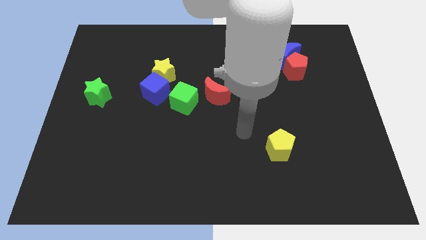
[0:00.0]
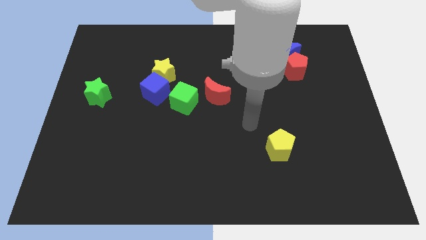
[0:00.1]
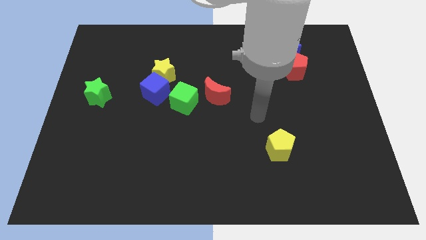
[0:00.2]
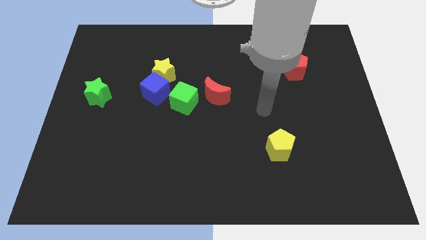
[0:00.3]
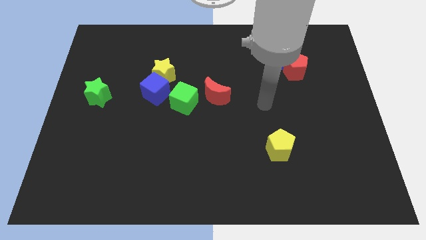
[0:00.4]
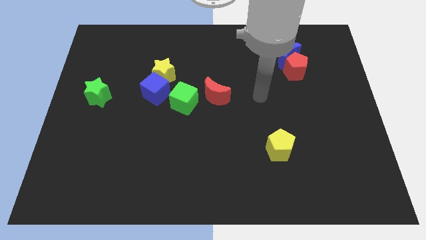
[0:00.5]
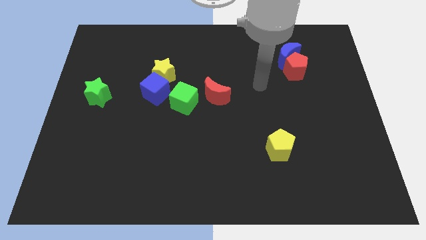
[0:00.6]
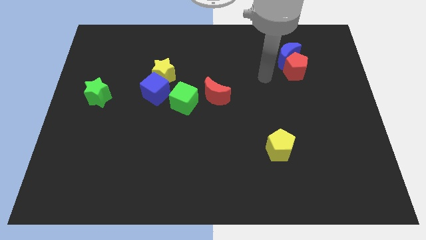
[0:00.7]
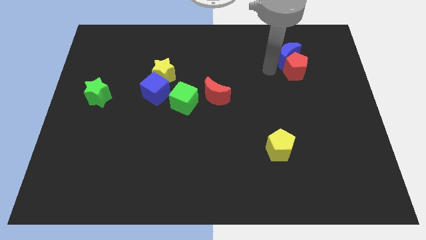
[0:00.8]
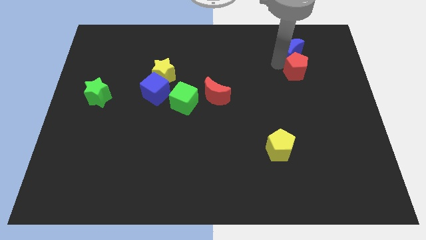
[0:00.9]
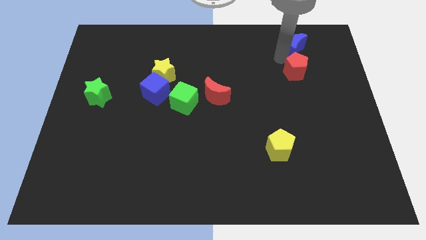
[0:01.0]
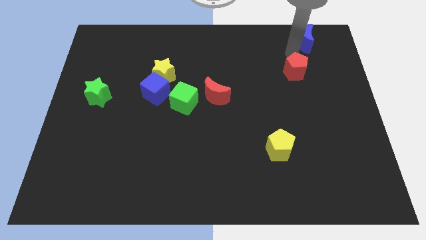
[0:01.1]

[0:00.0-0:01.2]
pull the red pentagon apart from the blue moon

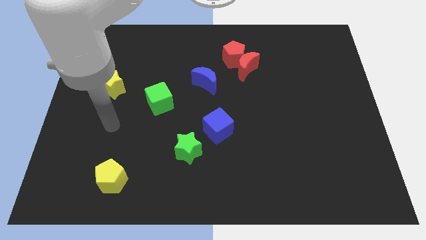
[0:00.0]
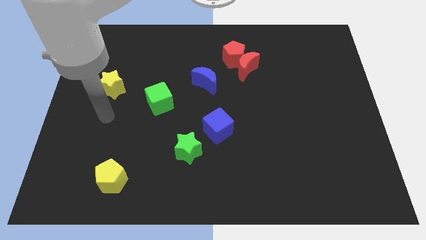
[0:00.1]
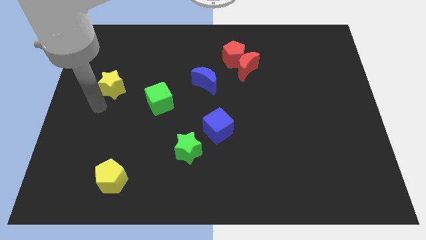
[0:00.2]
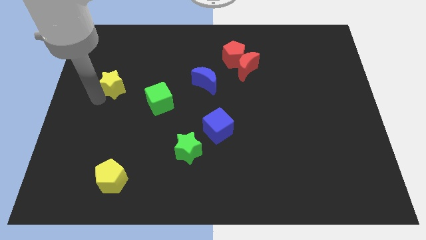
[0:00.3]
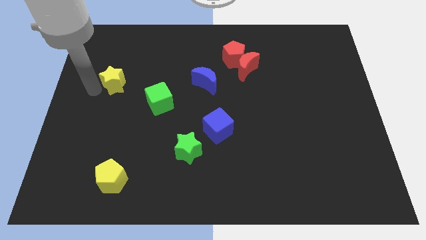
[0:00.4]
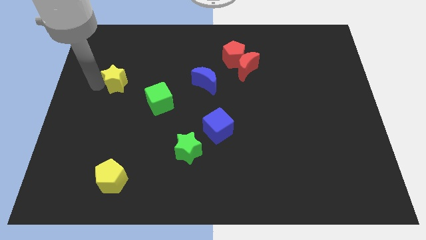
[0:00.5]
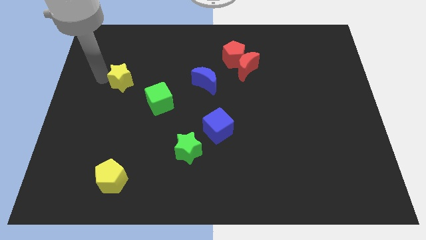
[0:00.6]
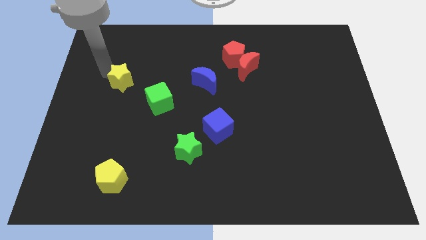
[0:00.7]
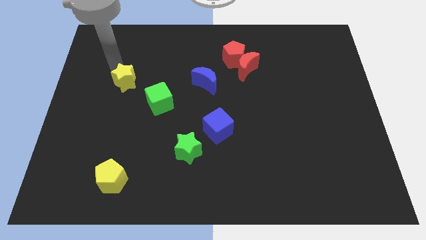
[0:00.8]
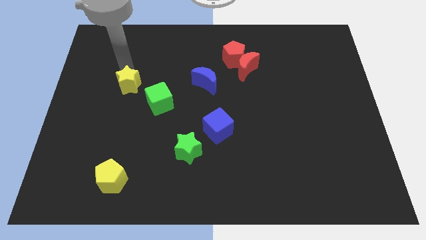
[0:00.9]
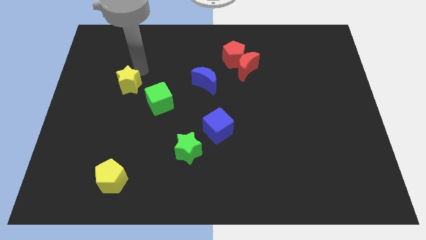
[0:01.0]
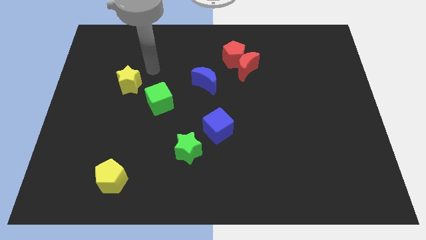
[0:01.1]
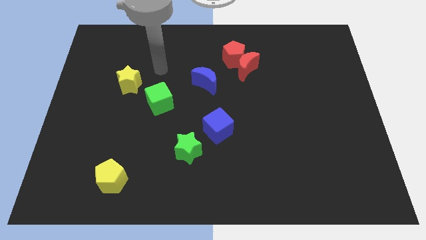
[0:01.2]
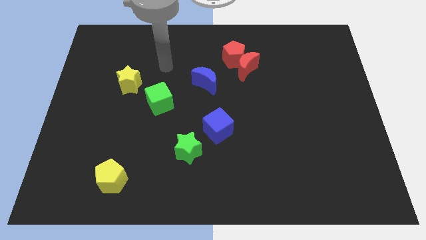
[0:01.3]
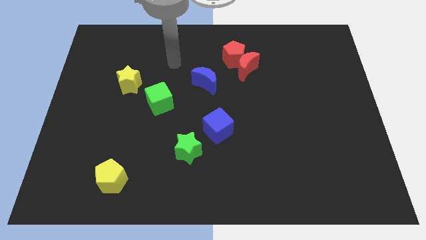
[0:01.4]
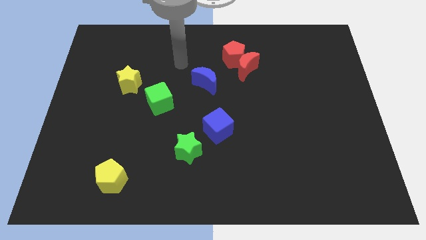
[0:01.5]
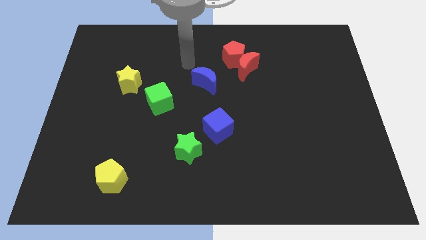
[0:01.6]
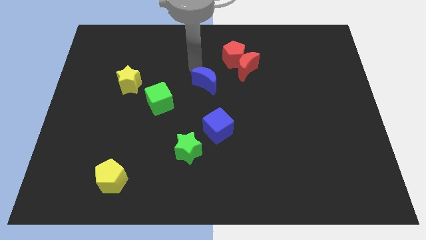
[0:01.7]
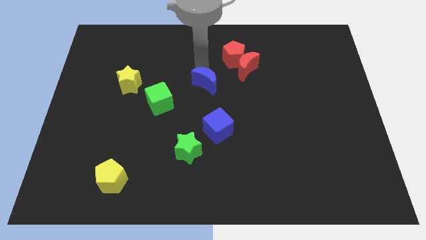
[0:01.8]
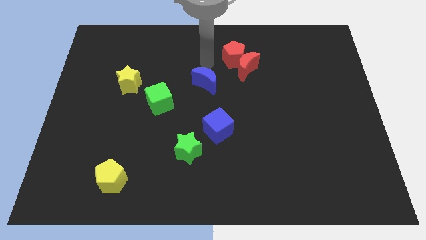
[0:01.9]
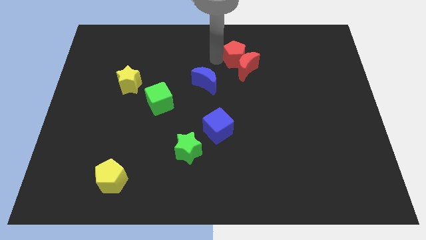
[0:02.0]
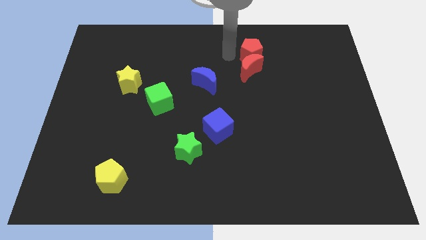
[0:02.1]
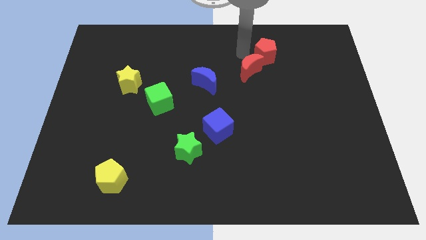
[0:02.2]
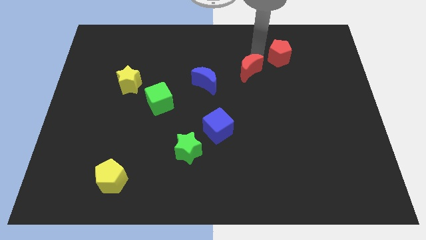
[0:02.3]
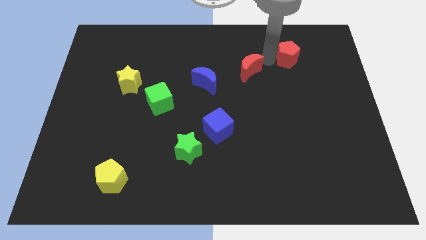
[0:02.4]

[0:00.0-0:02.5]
separate the red moon from the red pentagon

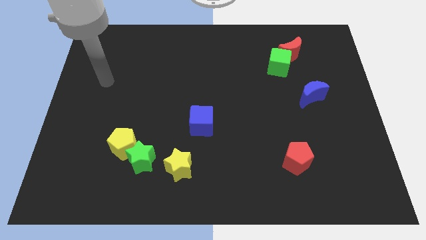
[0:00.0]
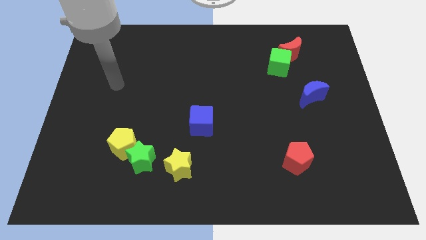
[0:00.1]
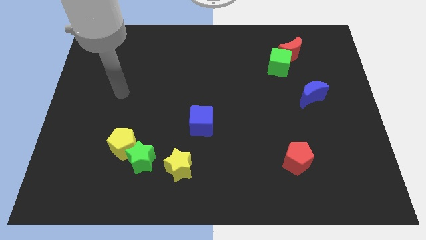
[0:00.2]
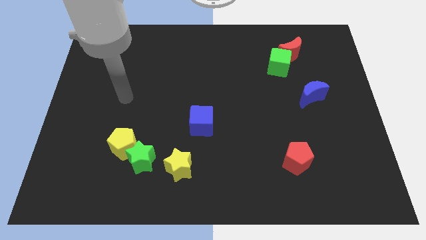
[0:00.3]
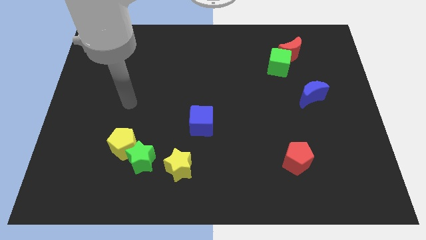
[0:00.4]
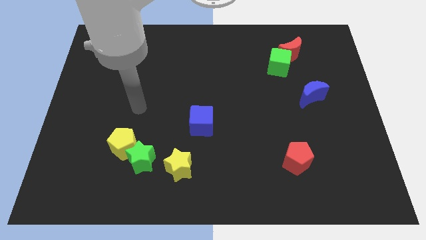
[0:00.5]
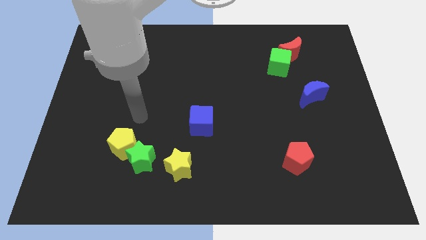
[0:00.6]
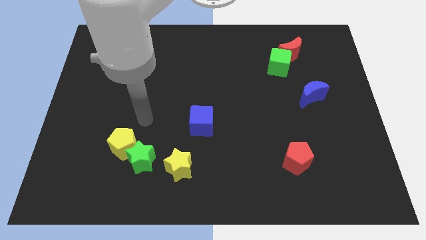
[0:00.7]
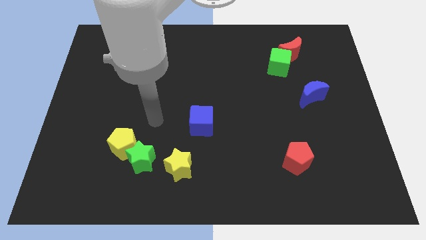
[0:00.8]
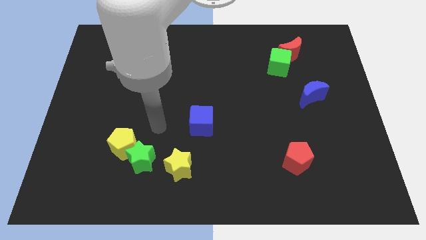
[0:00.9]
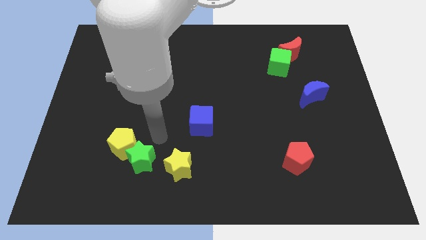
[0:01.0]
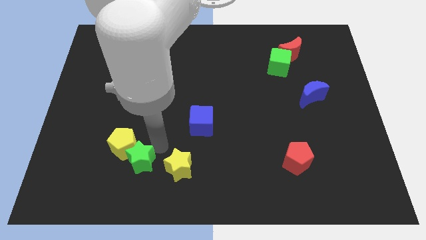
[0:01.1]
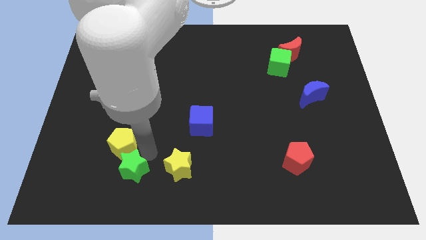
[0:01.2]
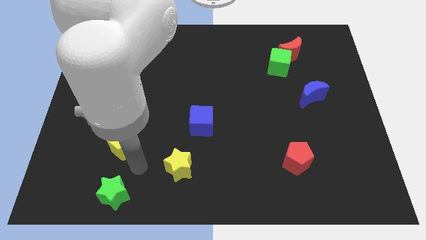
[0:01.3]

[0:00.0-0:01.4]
pull the yellow pentagon apart from the green star

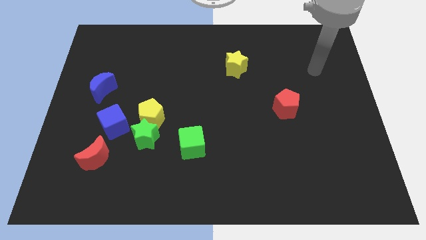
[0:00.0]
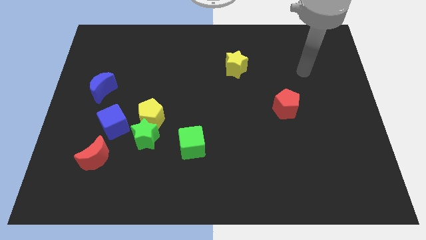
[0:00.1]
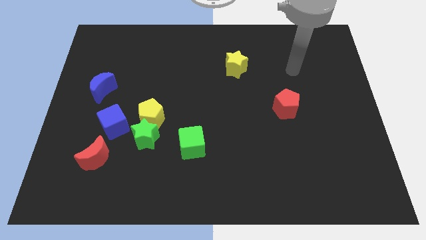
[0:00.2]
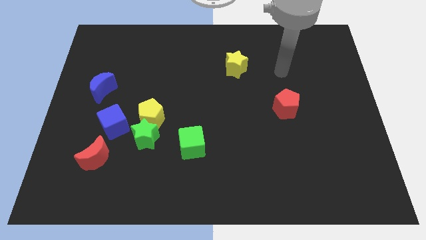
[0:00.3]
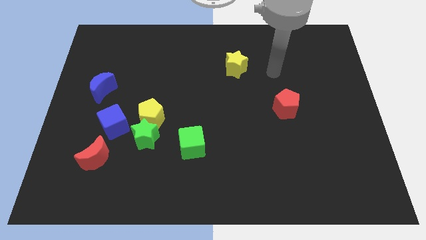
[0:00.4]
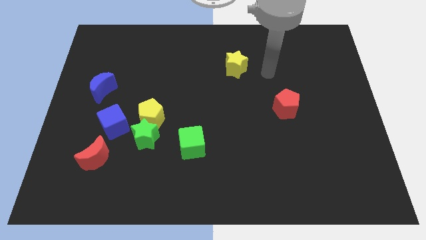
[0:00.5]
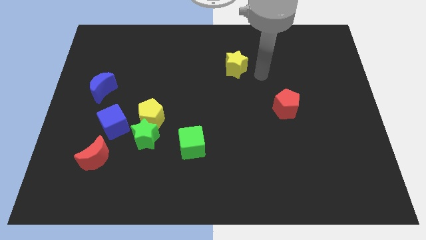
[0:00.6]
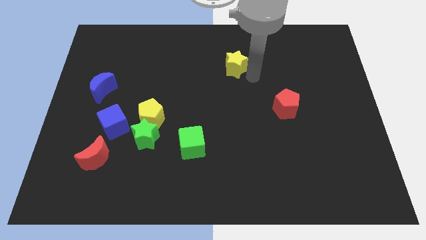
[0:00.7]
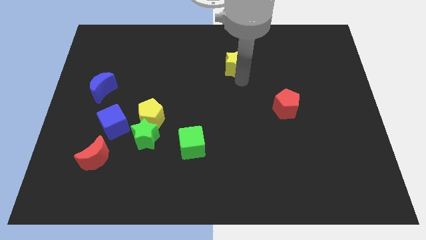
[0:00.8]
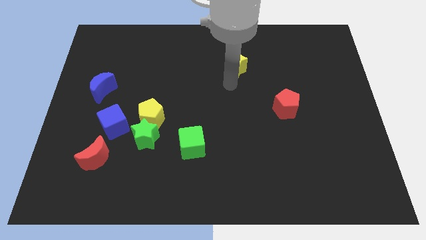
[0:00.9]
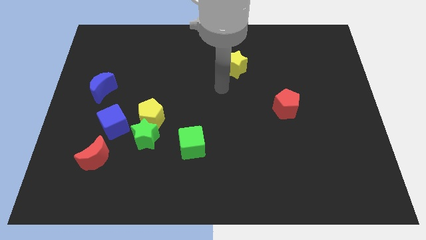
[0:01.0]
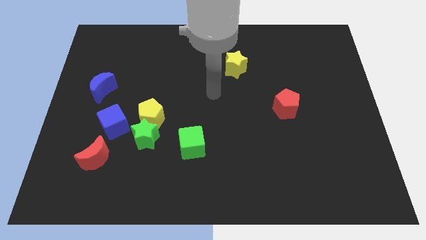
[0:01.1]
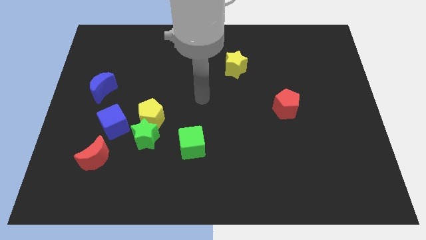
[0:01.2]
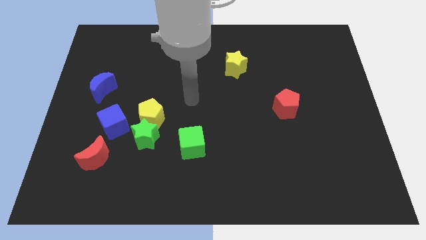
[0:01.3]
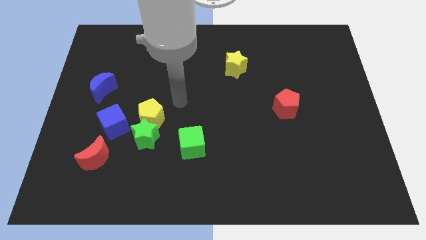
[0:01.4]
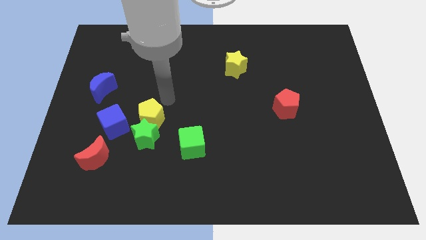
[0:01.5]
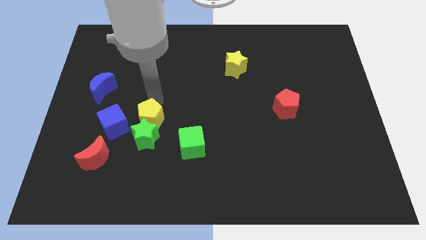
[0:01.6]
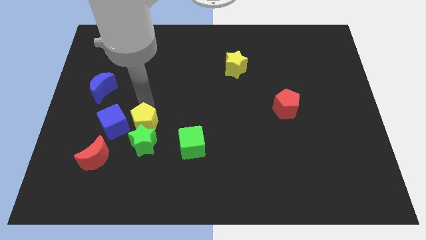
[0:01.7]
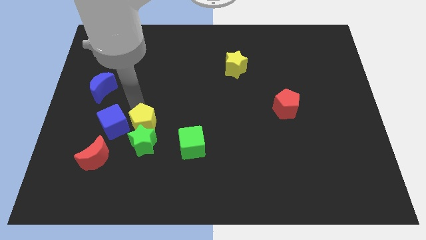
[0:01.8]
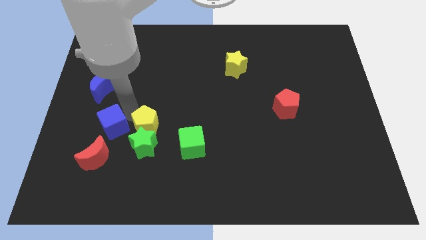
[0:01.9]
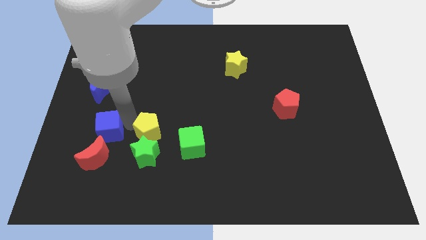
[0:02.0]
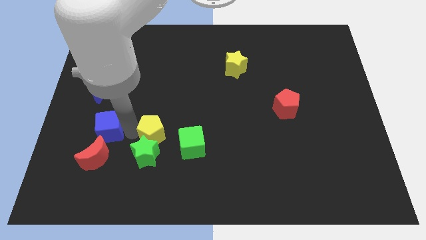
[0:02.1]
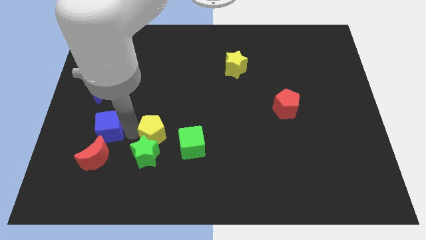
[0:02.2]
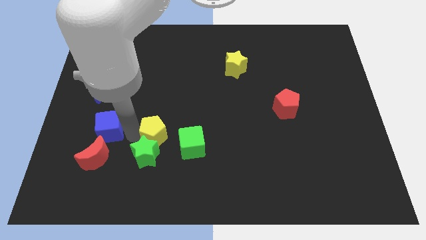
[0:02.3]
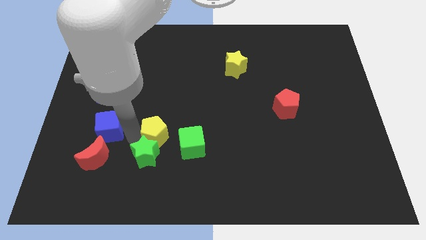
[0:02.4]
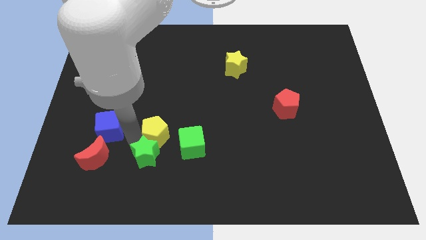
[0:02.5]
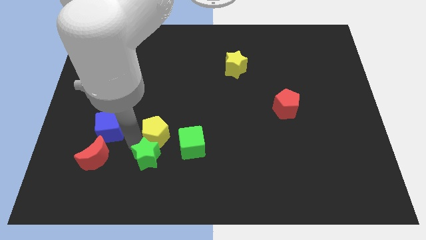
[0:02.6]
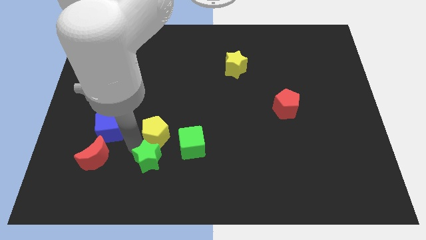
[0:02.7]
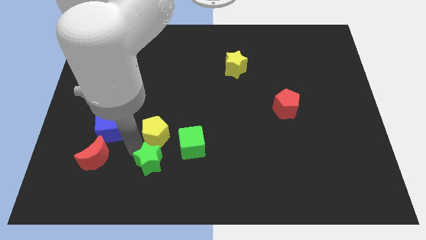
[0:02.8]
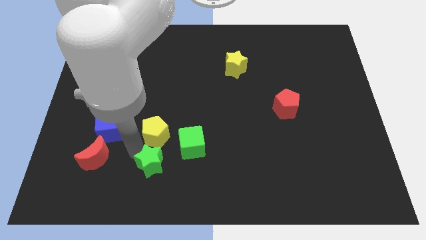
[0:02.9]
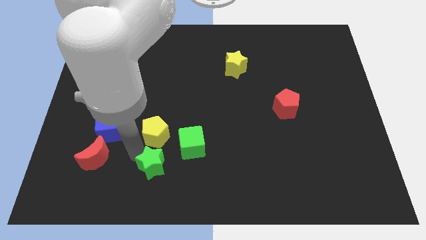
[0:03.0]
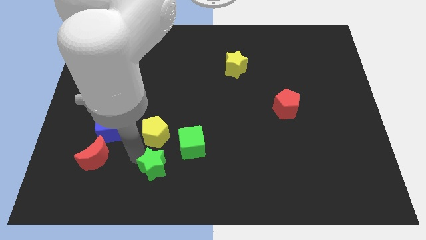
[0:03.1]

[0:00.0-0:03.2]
pull the green star apart from the yellow pentagon and blue cube

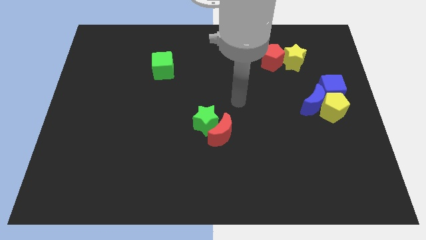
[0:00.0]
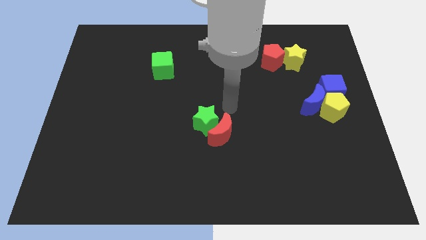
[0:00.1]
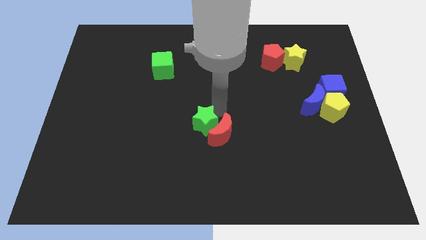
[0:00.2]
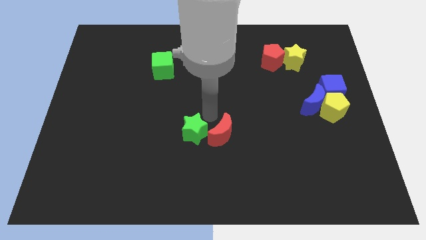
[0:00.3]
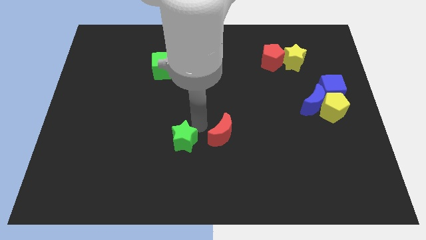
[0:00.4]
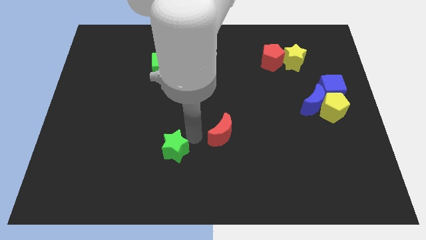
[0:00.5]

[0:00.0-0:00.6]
pull the red moon apart from the green star

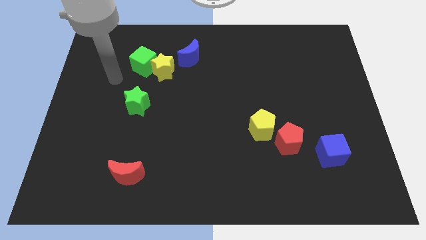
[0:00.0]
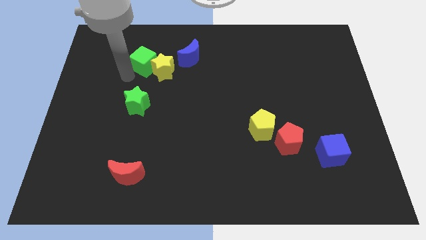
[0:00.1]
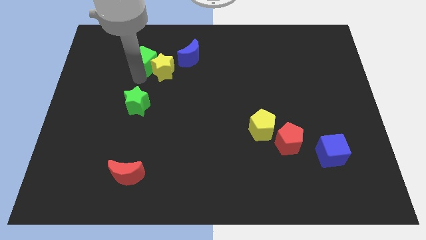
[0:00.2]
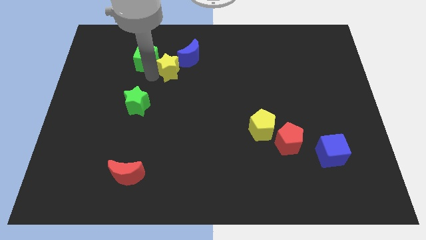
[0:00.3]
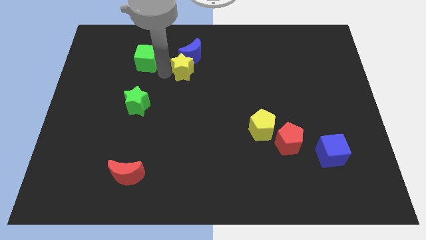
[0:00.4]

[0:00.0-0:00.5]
move the green cube away from the yellow star
